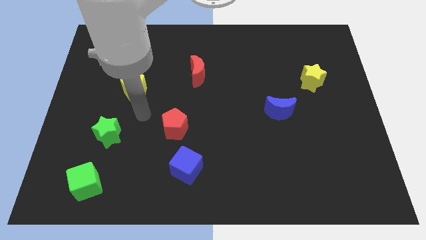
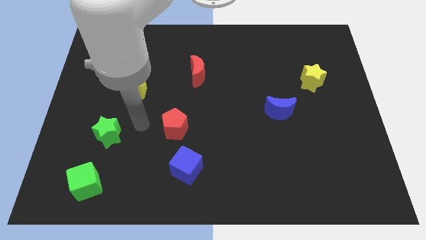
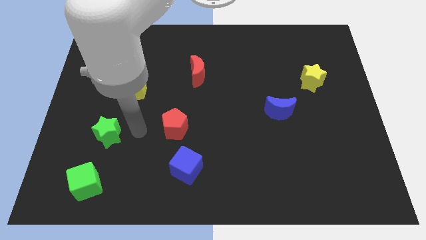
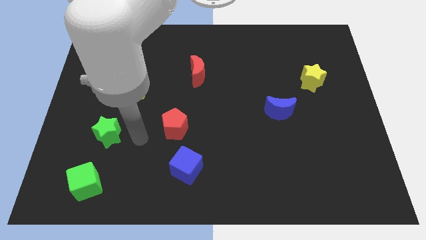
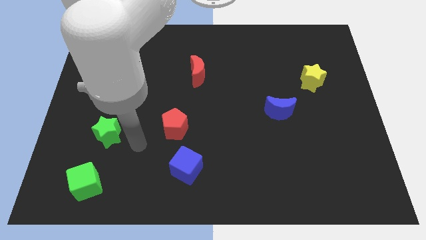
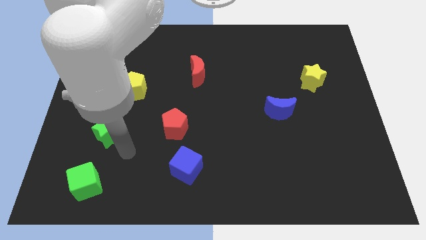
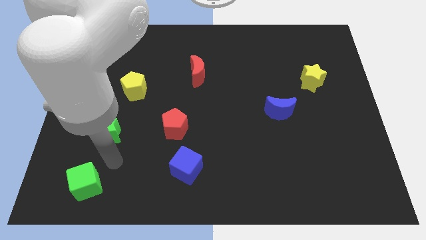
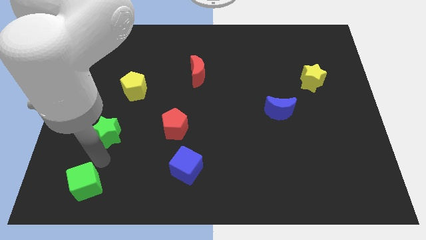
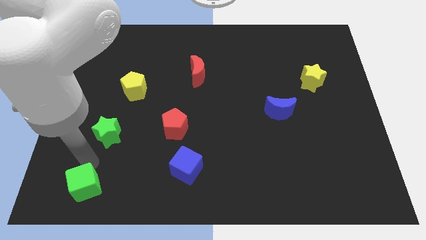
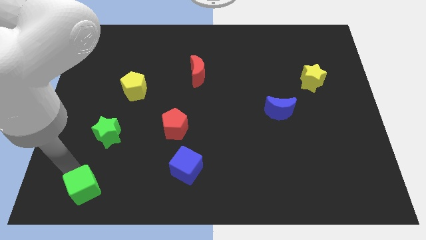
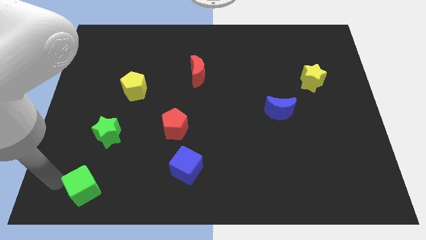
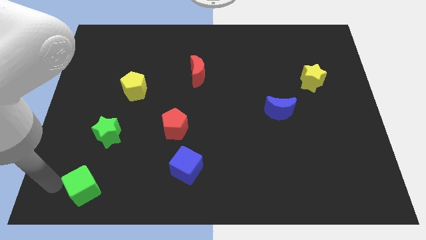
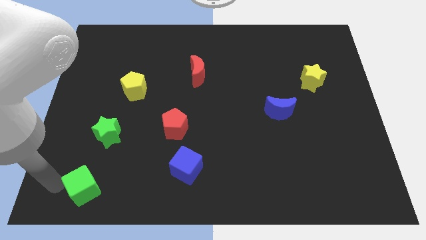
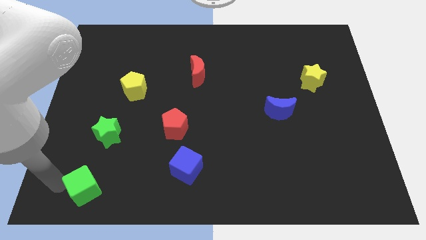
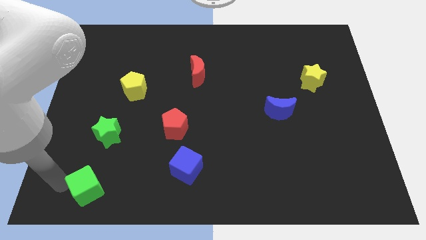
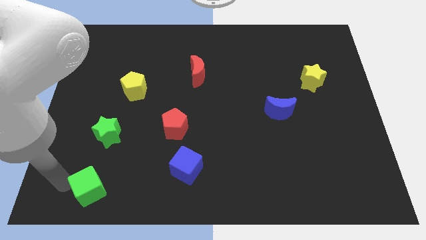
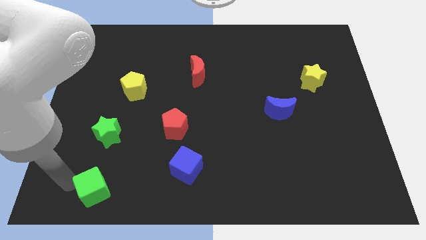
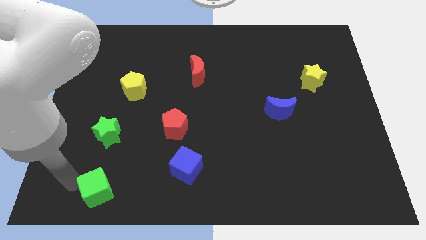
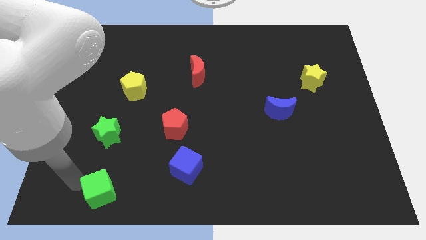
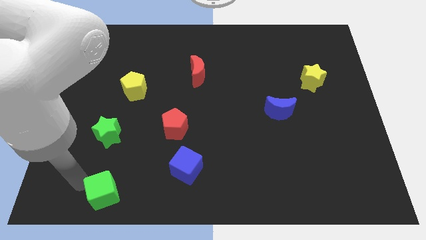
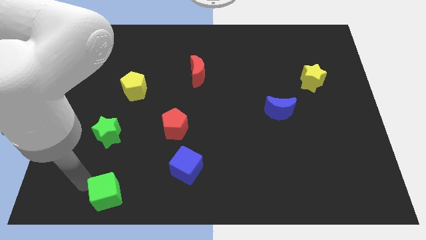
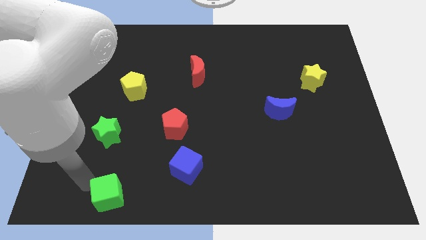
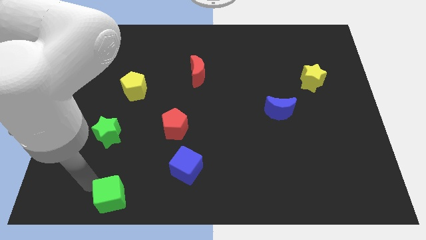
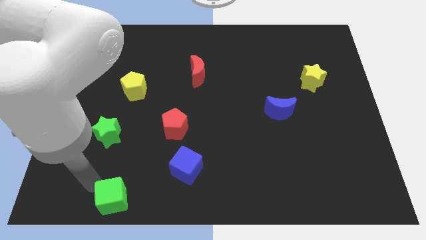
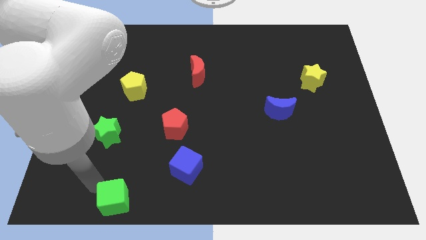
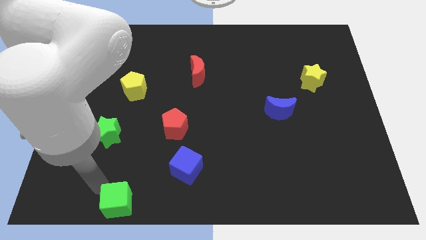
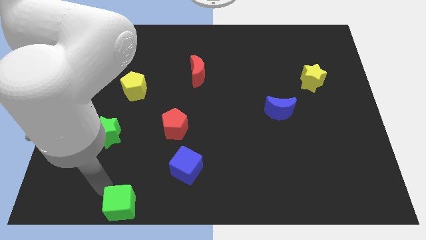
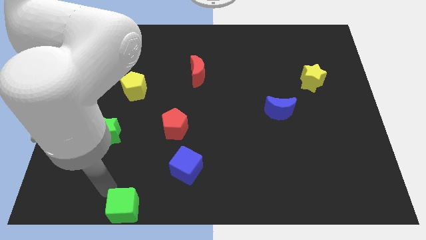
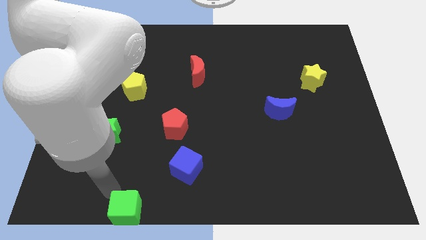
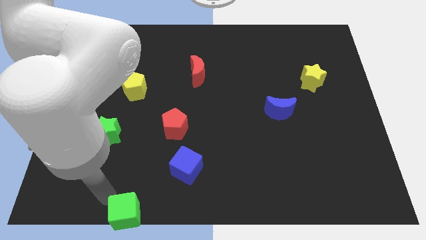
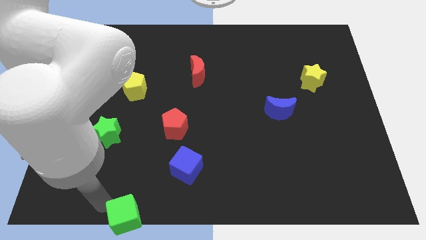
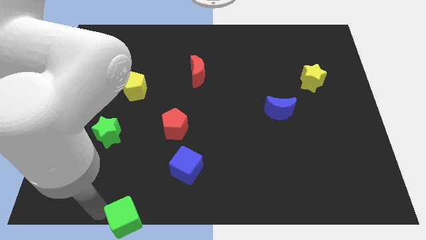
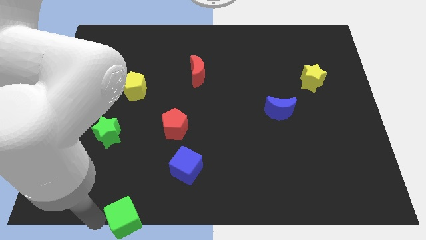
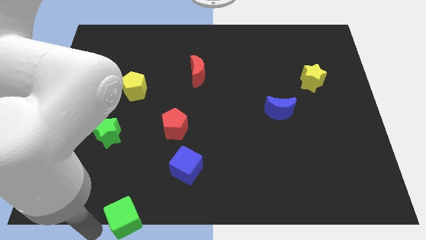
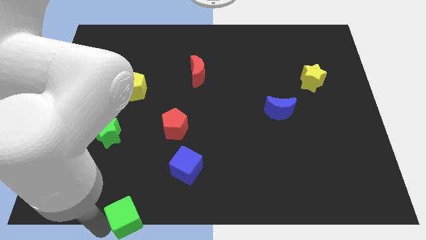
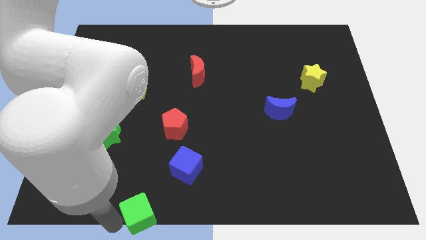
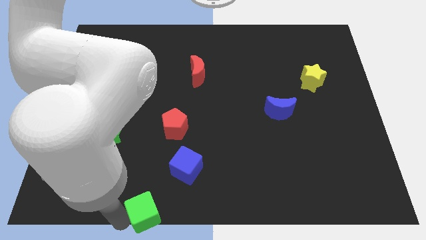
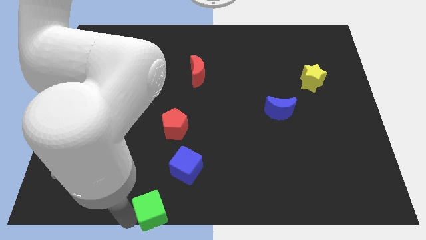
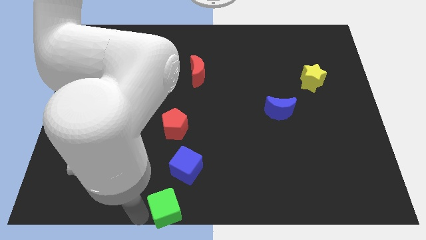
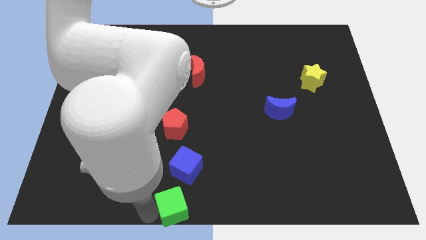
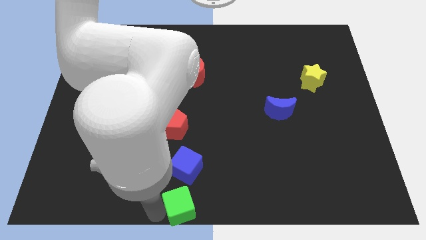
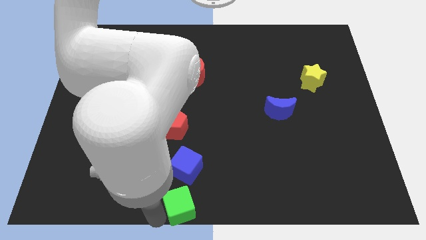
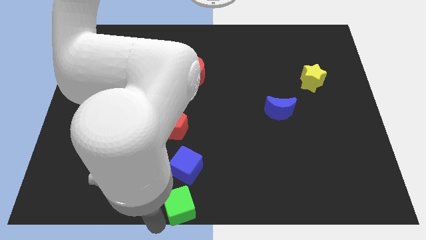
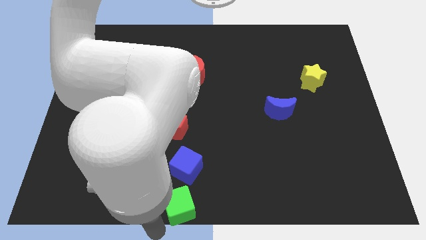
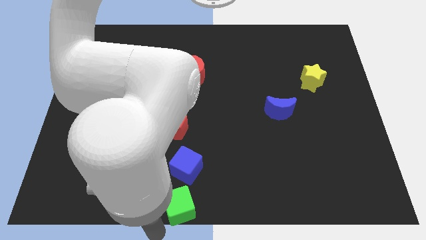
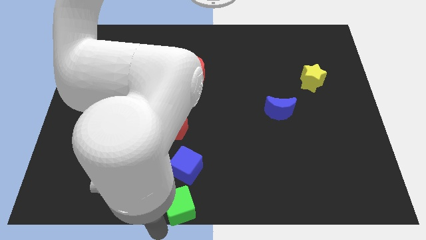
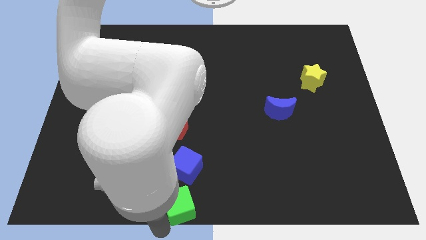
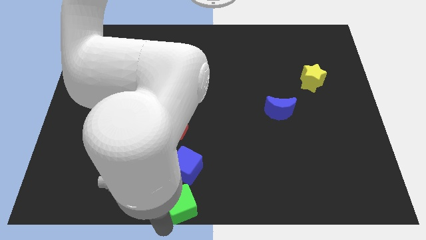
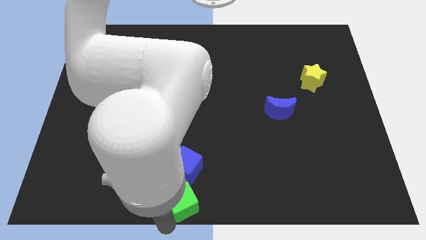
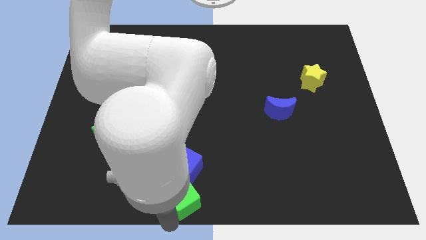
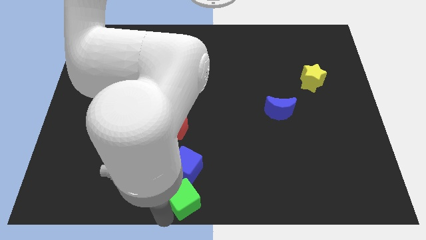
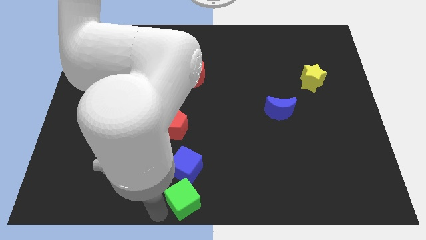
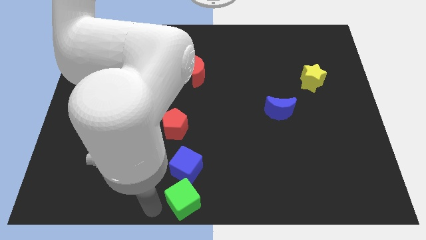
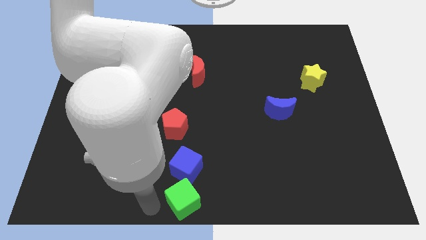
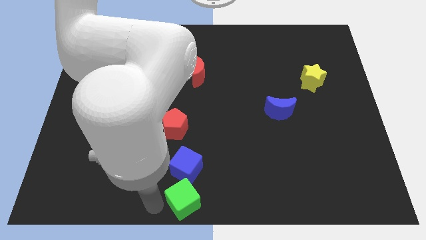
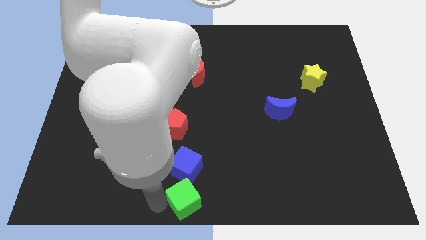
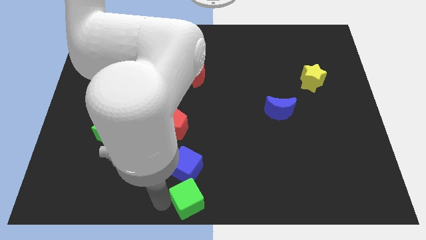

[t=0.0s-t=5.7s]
move the green cube right

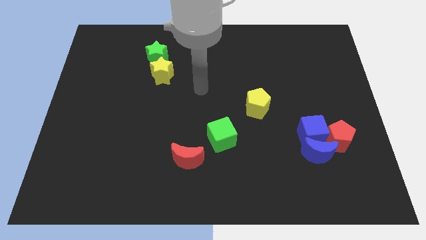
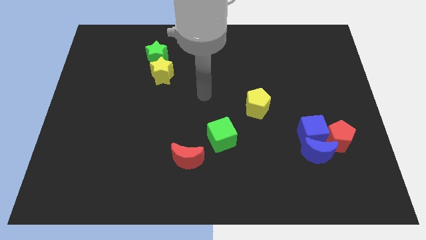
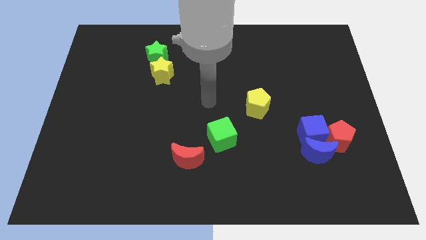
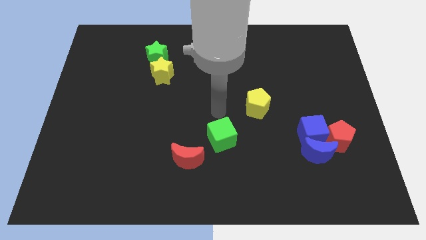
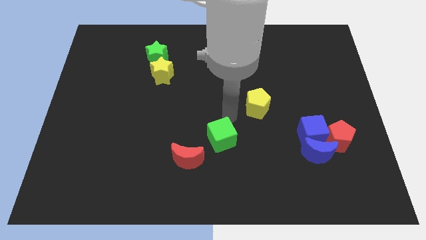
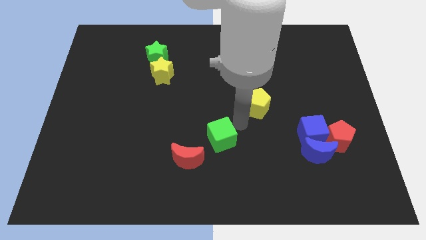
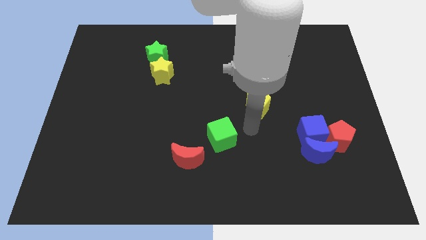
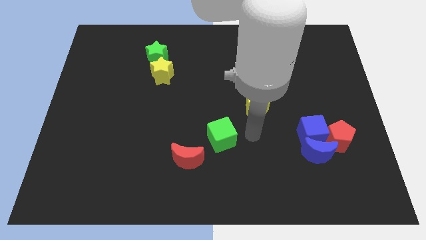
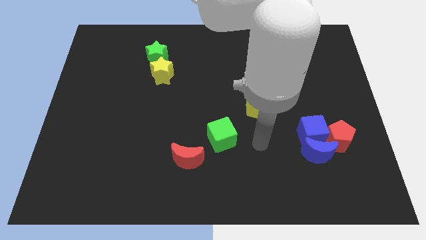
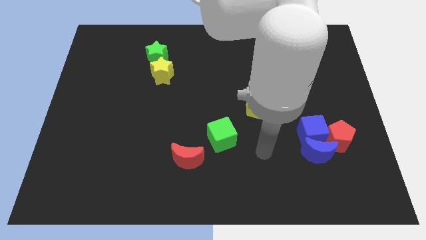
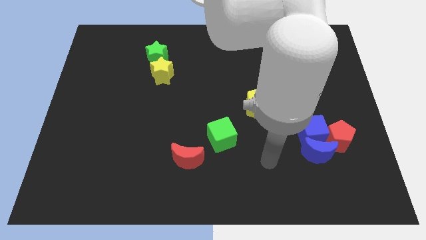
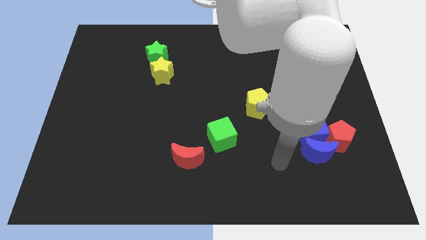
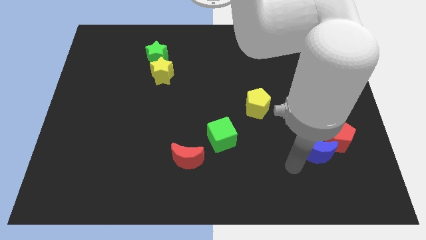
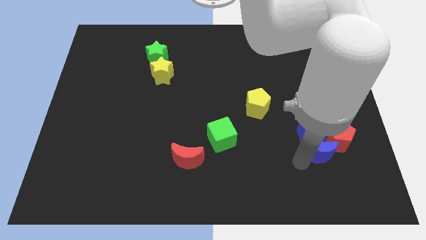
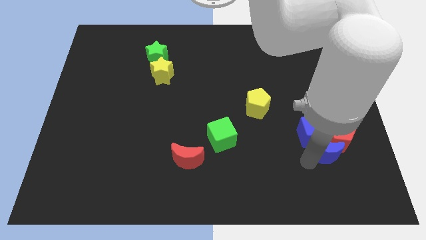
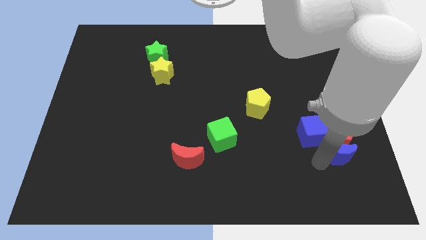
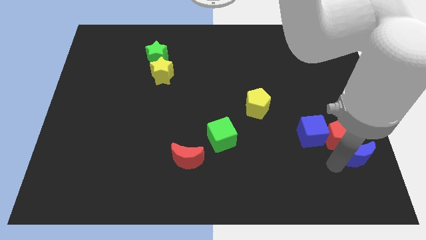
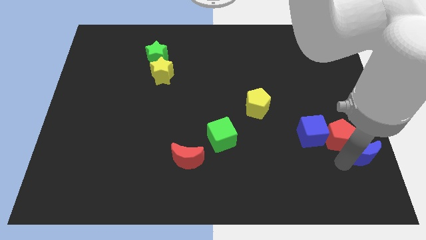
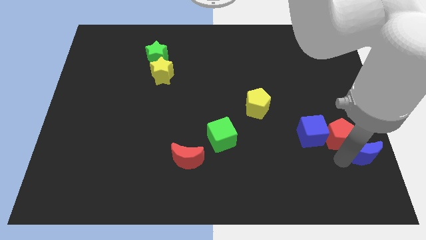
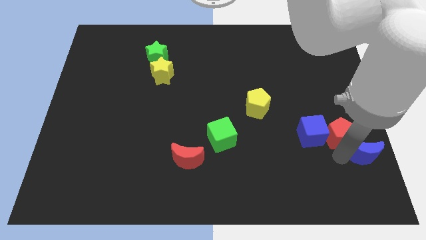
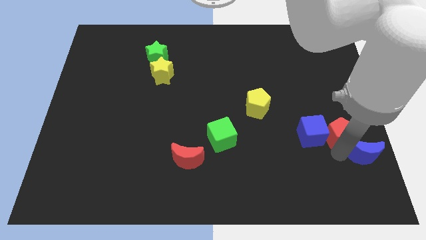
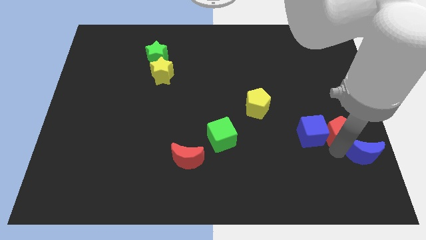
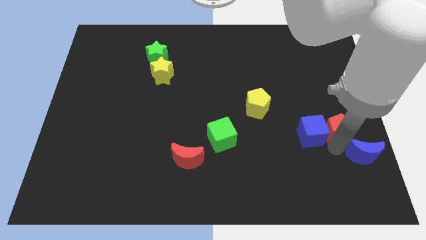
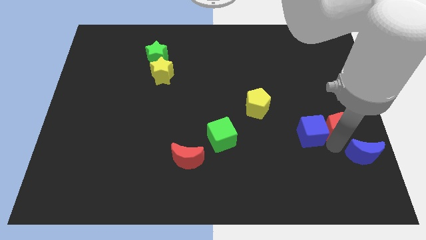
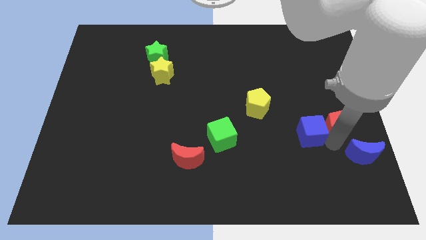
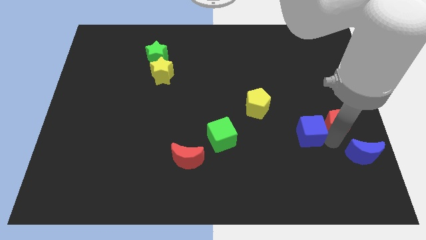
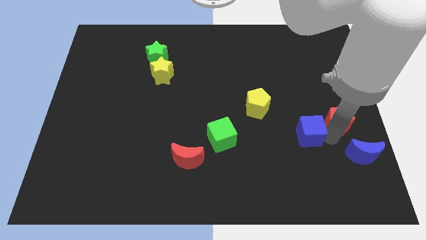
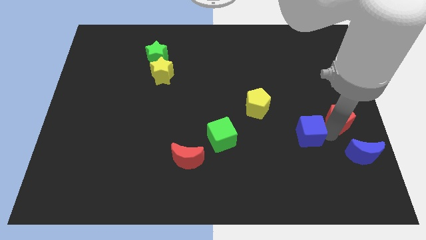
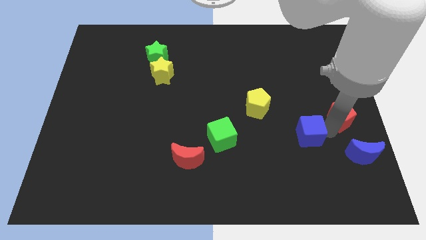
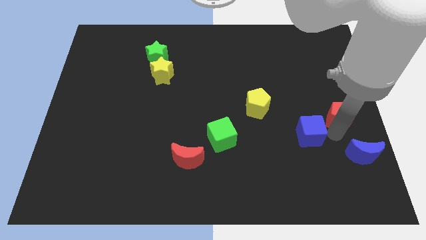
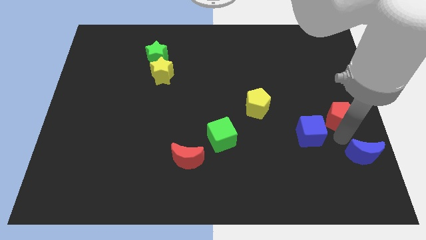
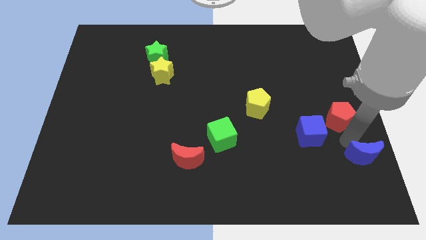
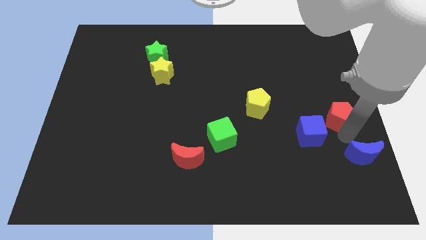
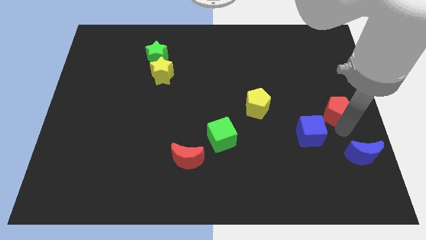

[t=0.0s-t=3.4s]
slightly push the red pentagon upwards
